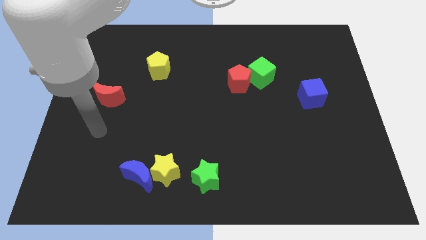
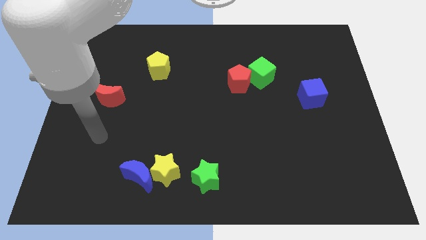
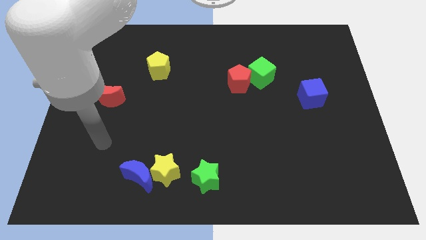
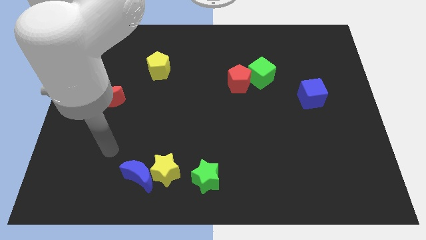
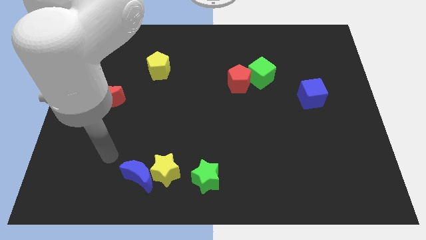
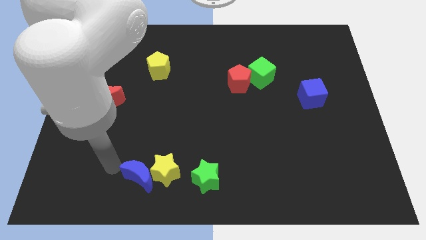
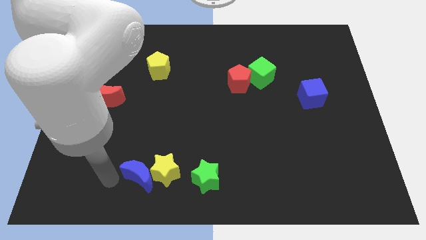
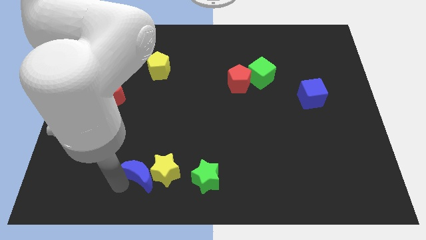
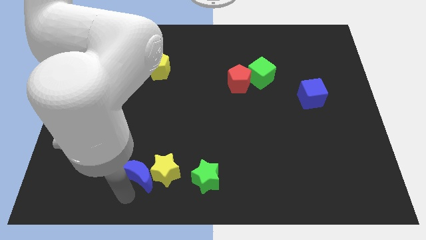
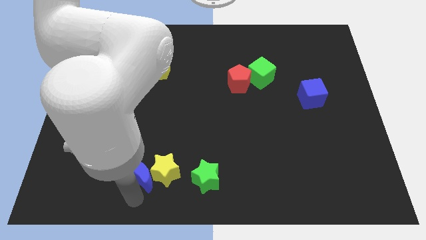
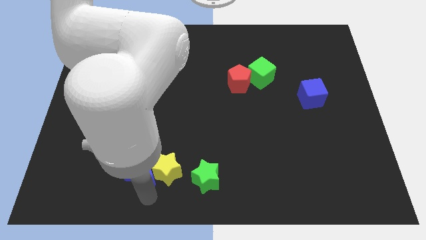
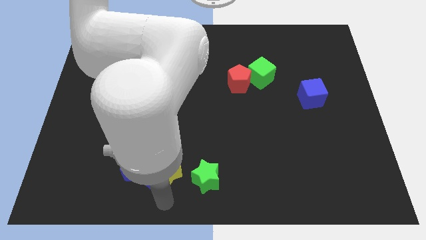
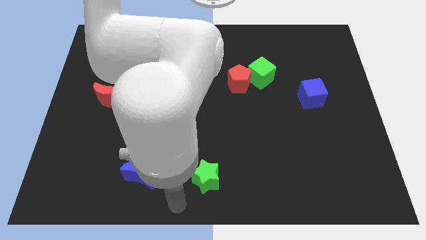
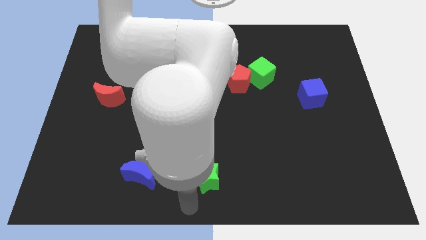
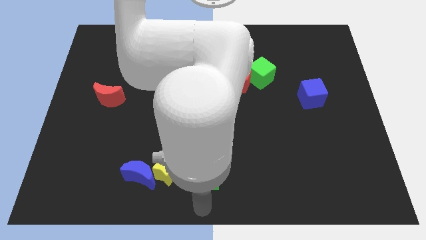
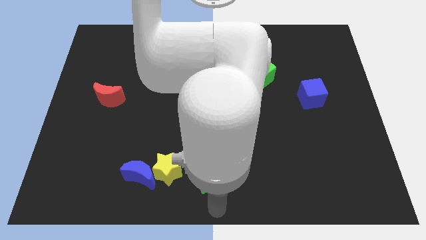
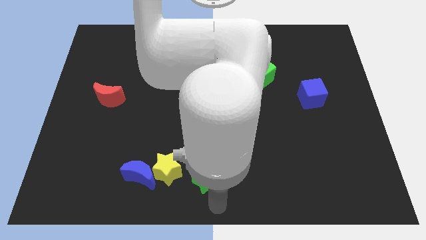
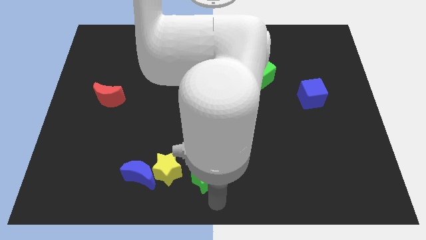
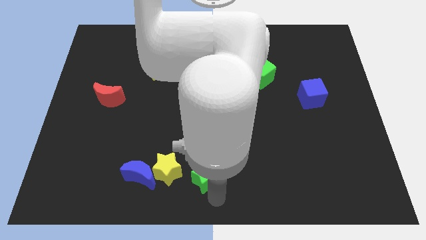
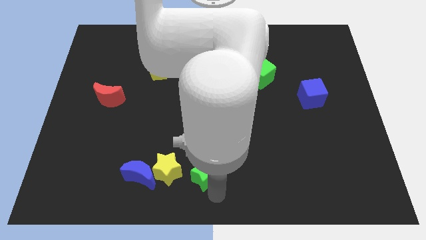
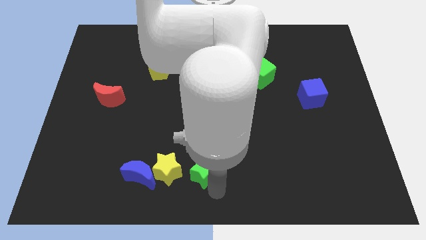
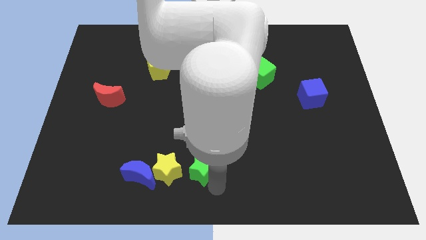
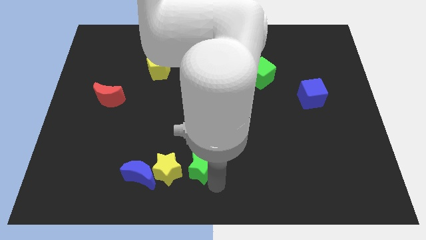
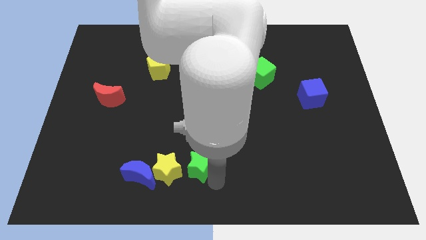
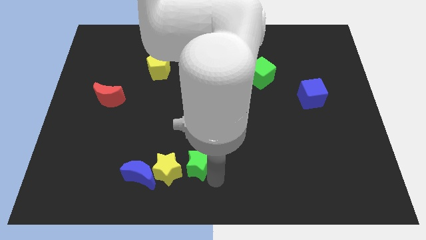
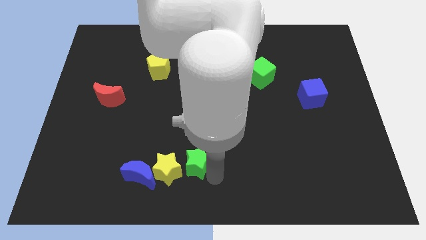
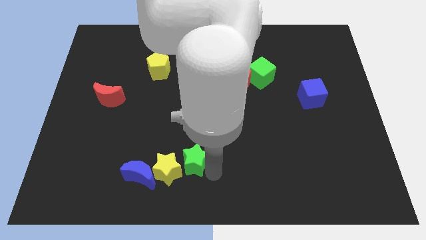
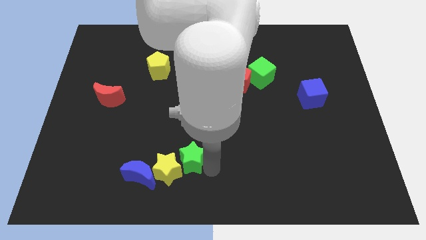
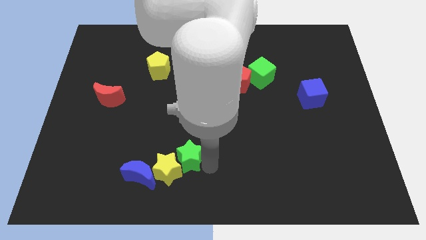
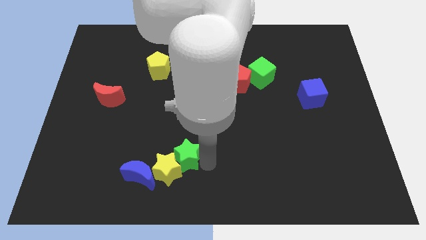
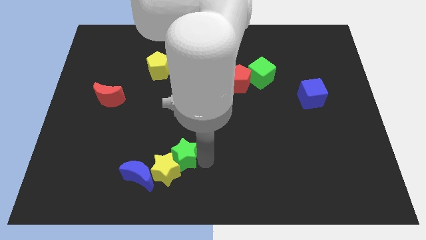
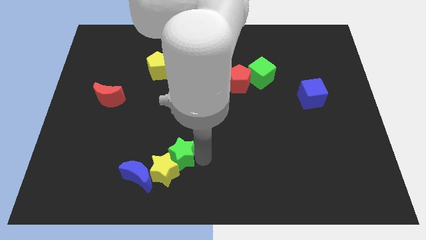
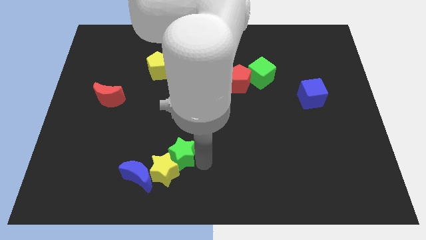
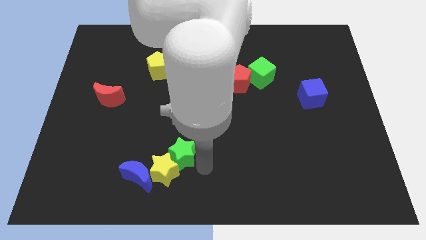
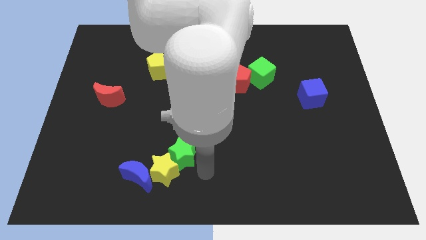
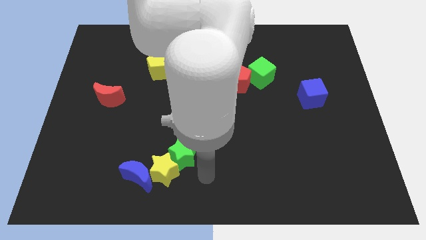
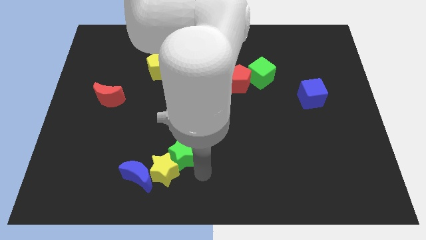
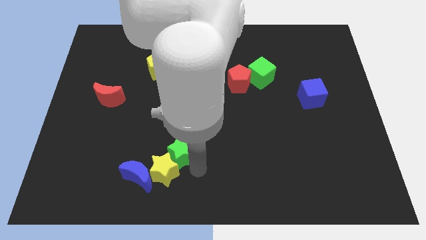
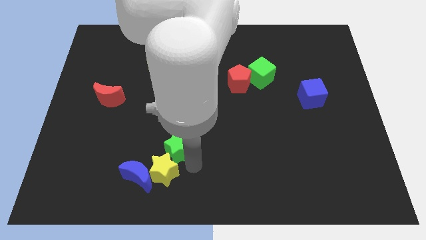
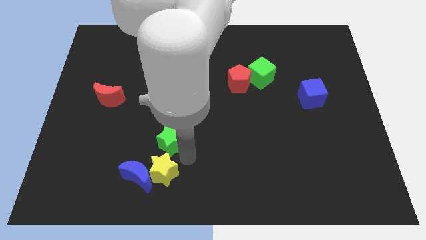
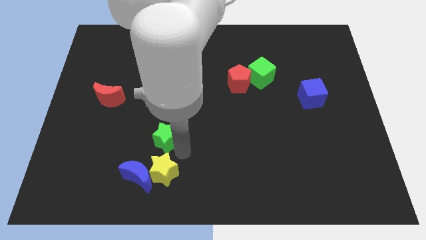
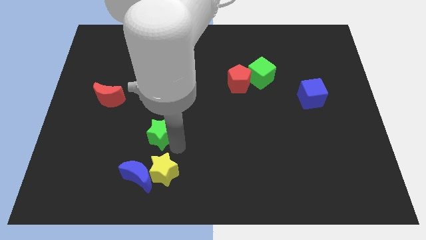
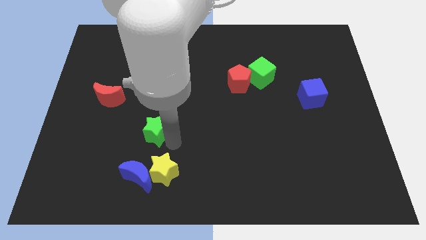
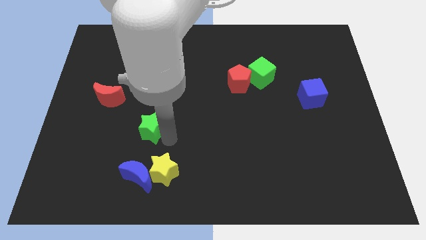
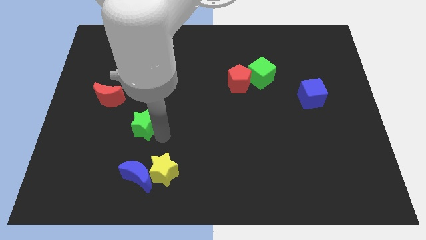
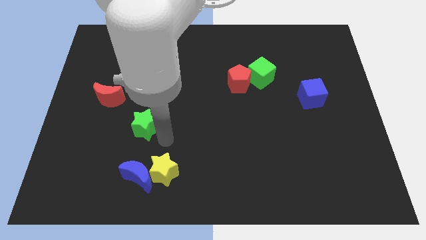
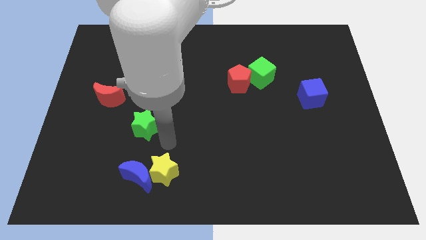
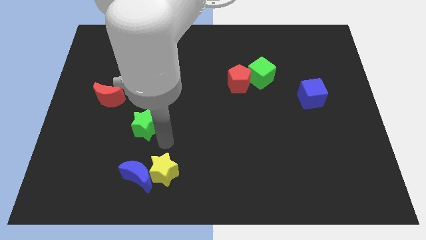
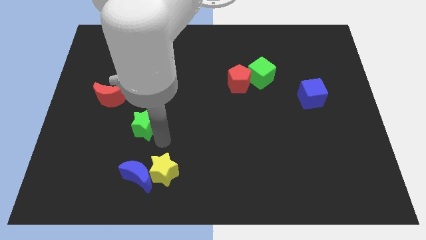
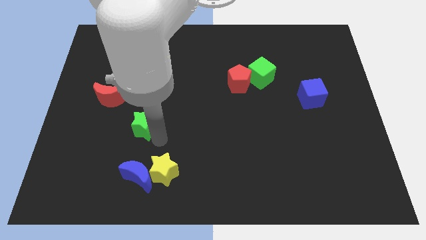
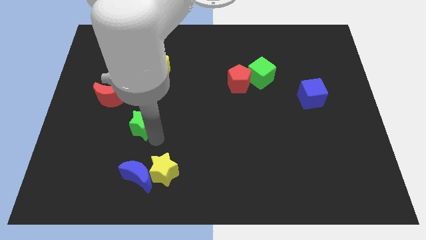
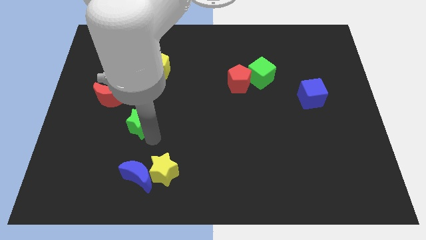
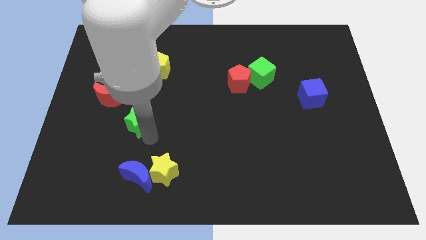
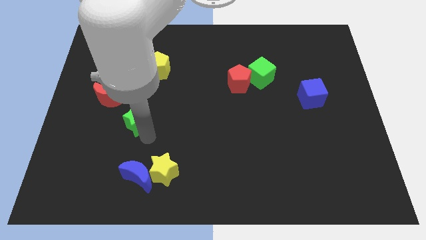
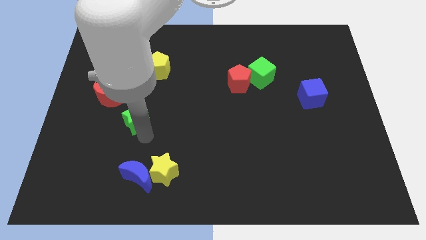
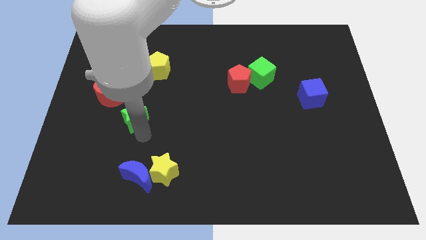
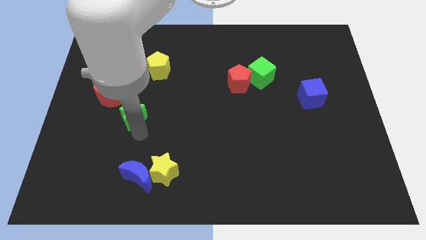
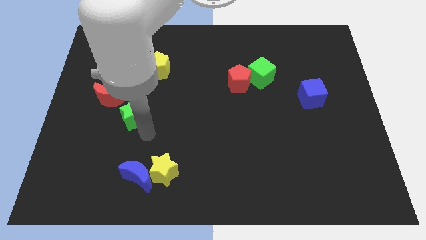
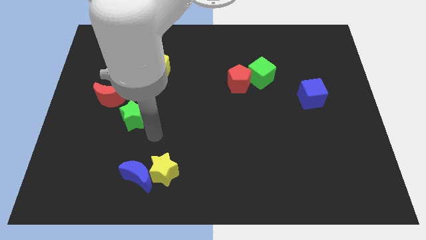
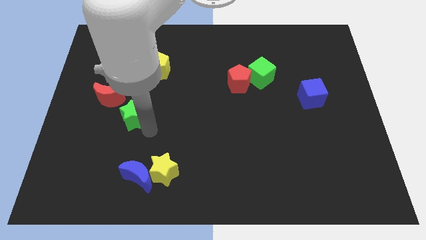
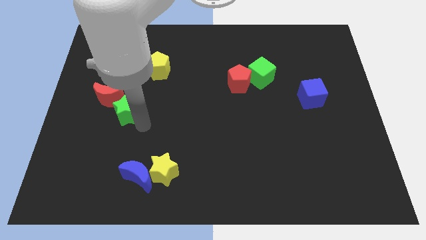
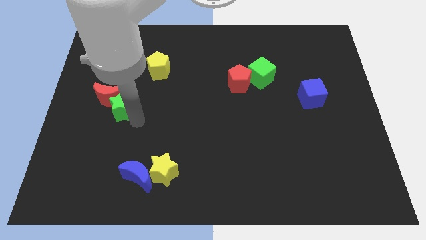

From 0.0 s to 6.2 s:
push the green star close to the red moon

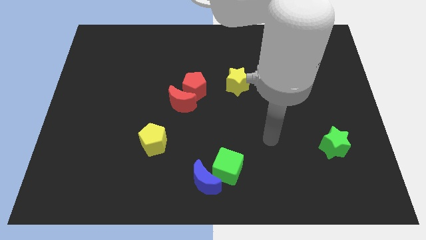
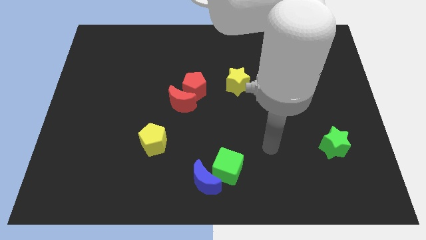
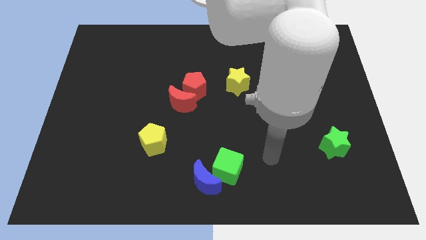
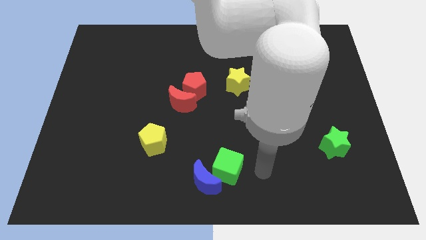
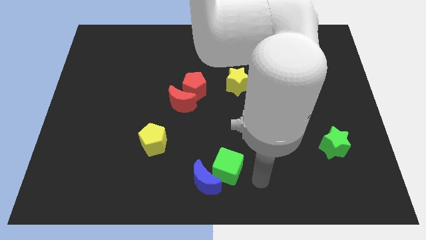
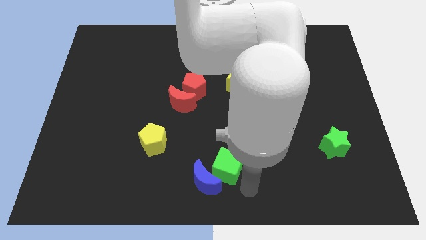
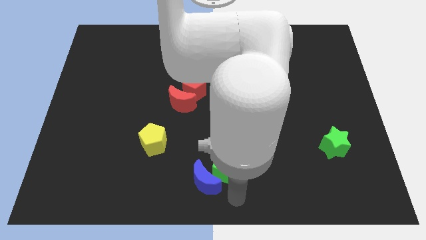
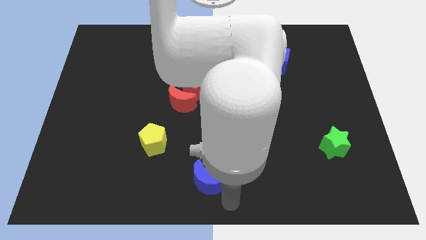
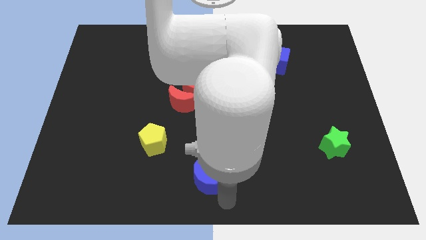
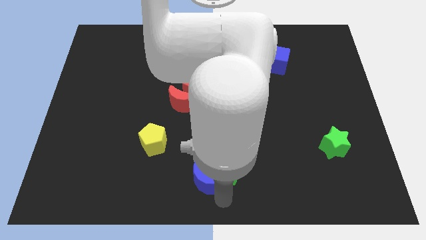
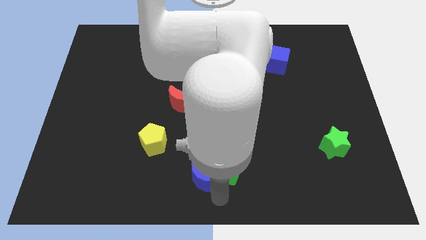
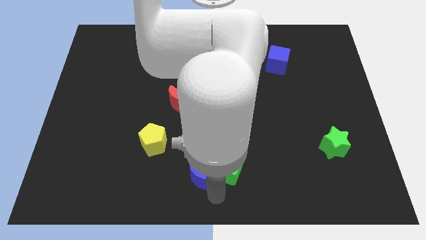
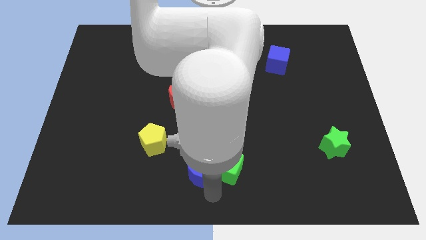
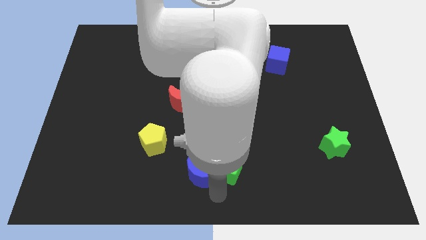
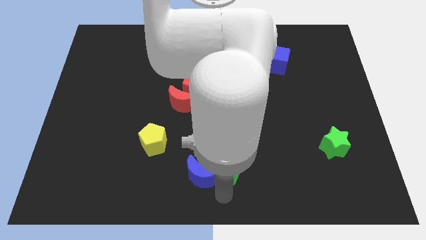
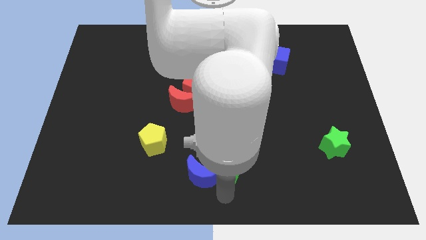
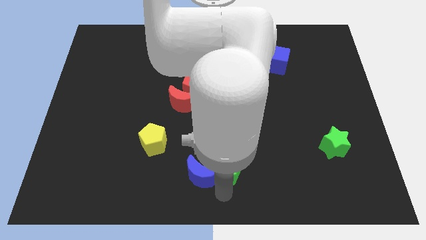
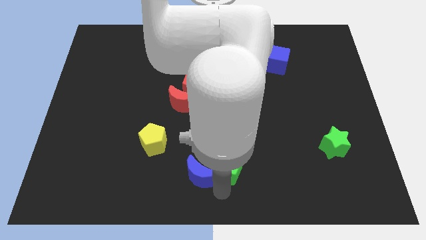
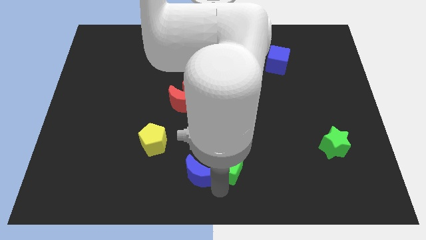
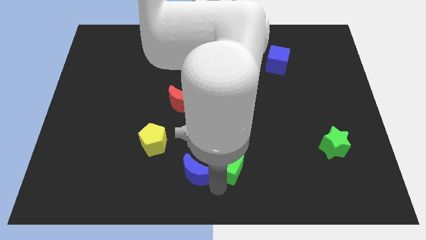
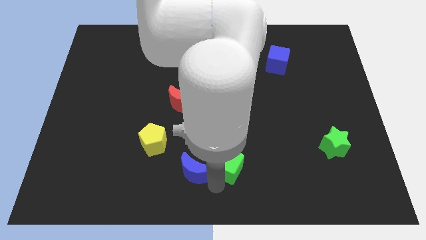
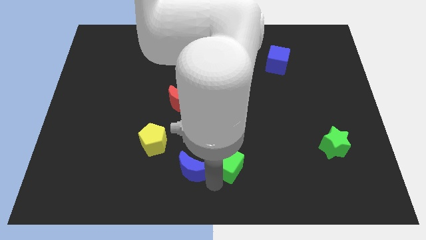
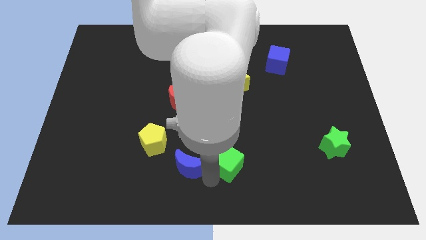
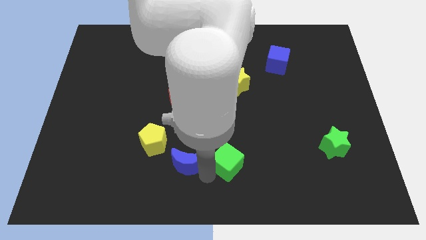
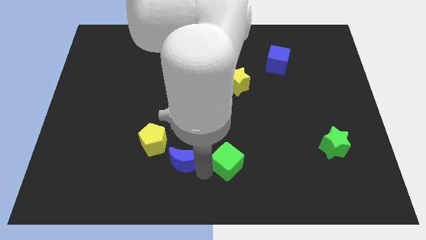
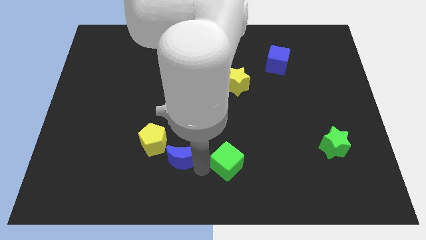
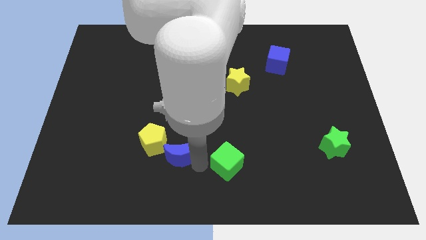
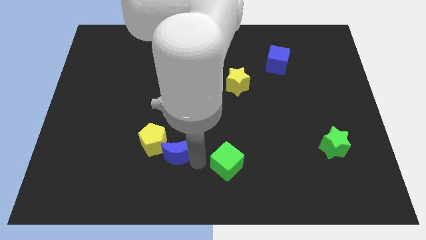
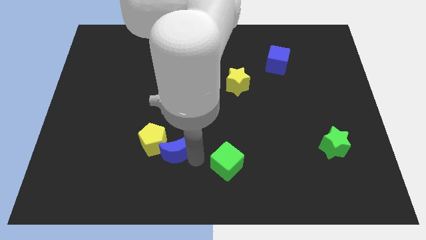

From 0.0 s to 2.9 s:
slide the blue moon towards the yellow pentagon
